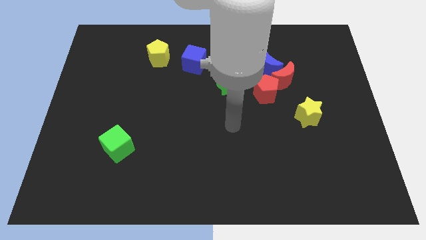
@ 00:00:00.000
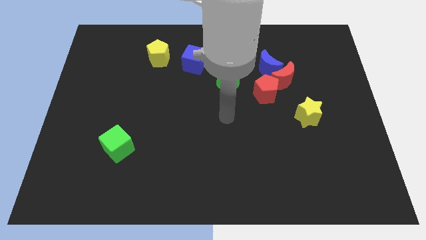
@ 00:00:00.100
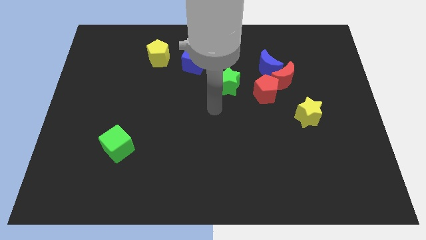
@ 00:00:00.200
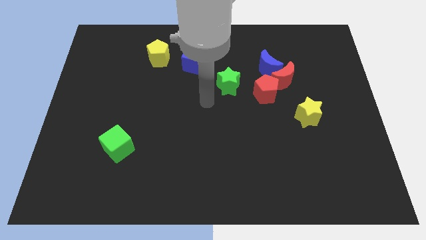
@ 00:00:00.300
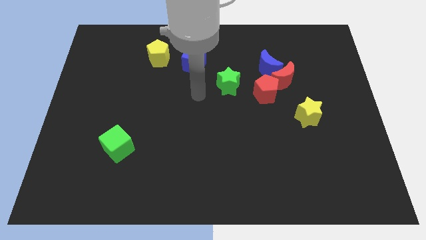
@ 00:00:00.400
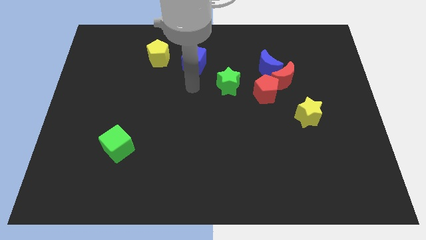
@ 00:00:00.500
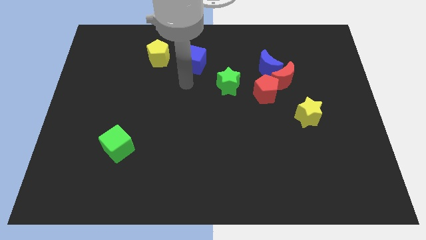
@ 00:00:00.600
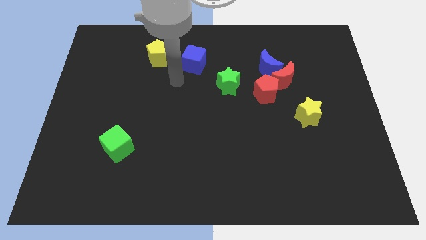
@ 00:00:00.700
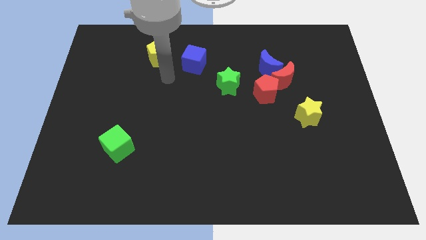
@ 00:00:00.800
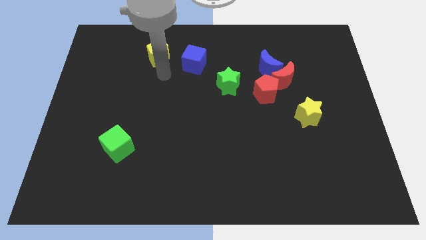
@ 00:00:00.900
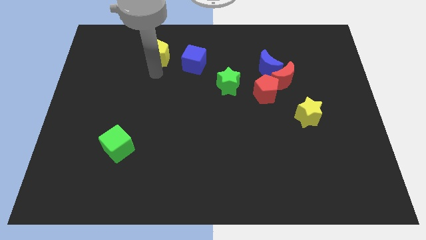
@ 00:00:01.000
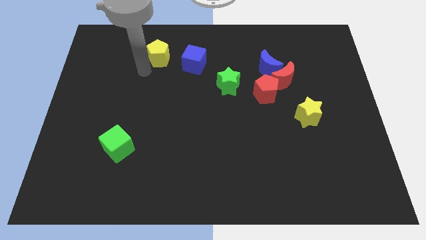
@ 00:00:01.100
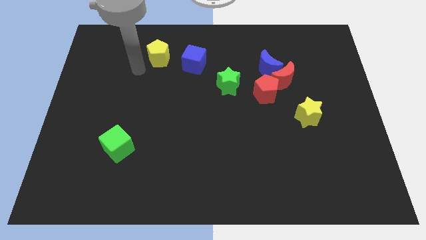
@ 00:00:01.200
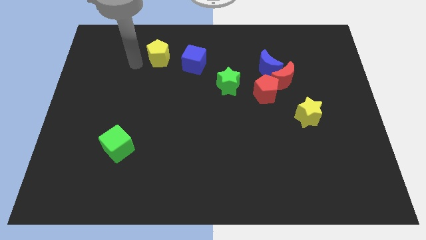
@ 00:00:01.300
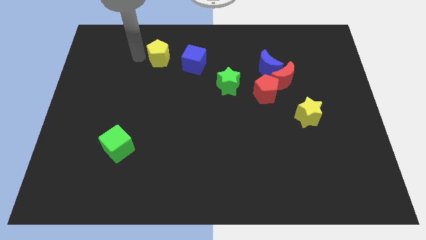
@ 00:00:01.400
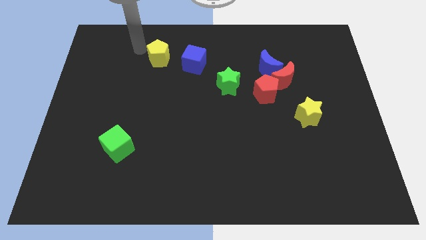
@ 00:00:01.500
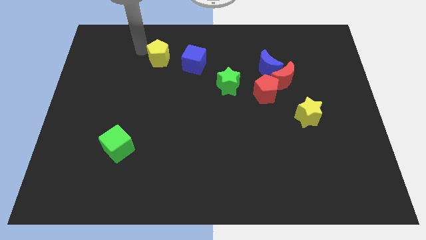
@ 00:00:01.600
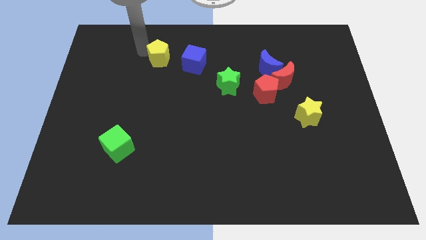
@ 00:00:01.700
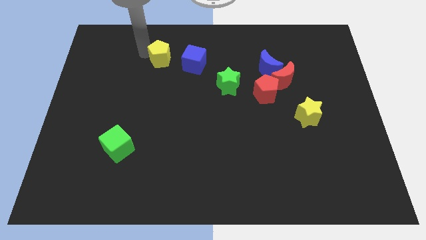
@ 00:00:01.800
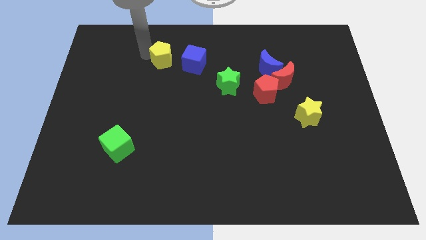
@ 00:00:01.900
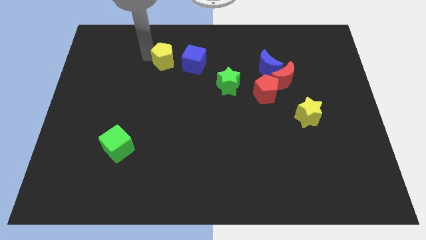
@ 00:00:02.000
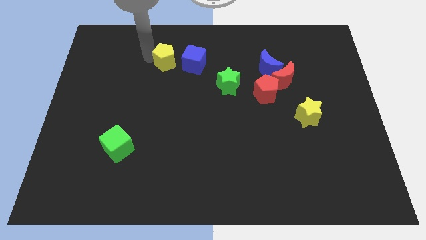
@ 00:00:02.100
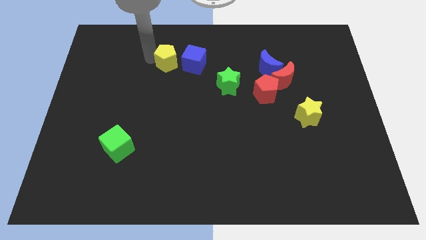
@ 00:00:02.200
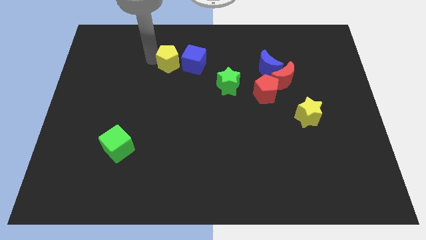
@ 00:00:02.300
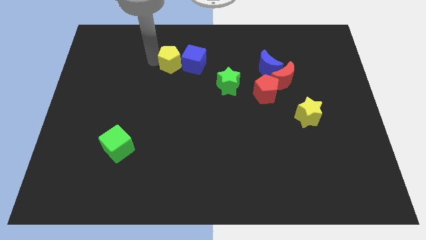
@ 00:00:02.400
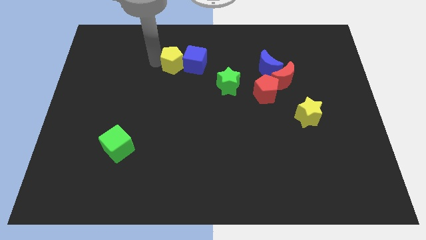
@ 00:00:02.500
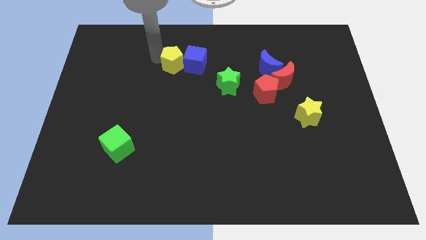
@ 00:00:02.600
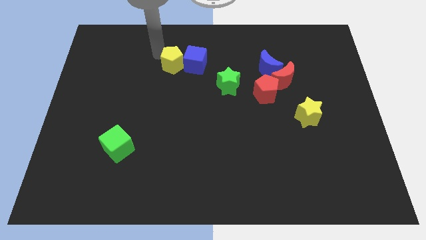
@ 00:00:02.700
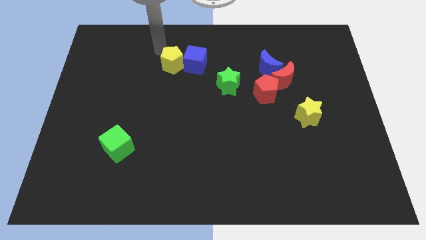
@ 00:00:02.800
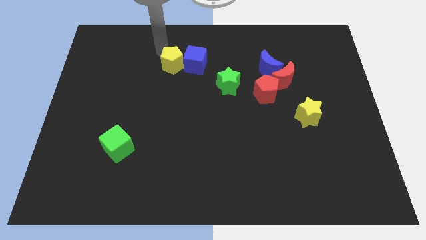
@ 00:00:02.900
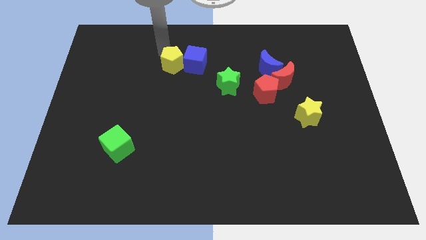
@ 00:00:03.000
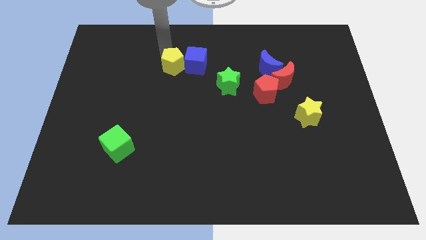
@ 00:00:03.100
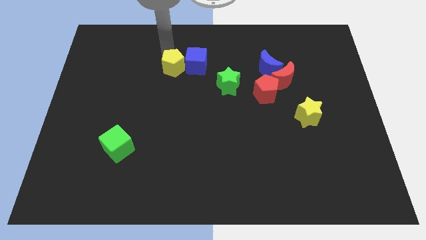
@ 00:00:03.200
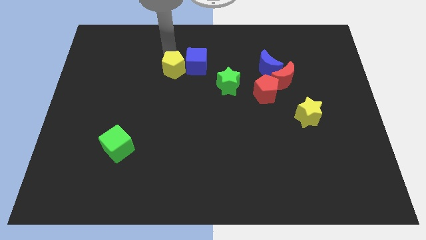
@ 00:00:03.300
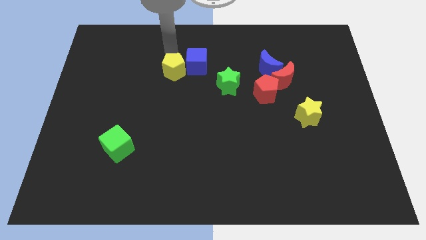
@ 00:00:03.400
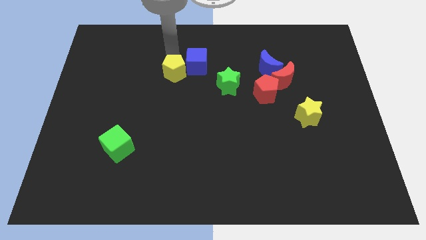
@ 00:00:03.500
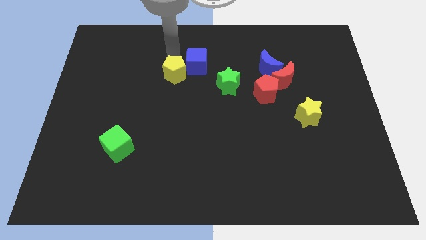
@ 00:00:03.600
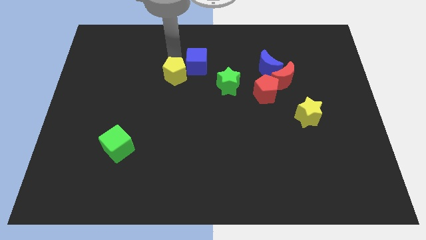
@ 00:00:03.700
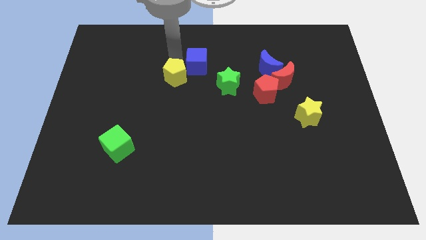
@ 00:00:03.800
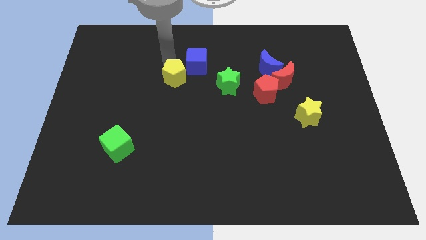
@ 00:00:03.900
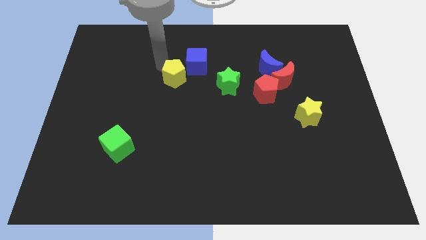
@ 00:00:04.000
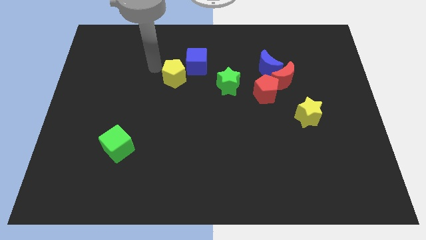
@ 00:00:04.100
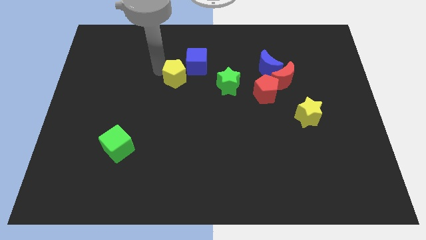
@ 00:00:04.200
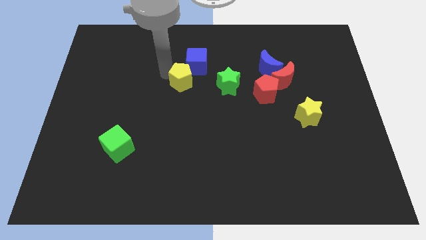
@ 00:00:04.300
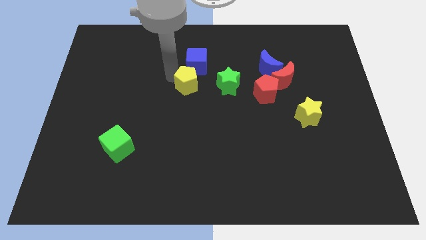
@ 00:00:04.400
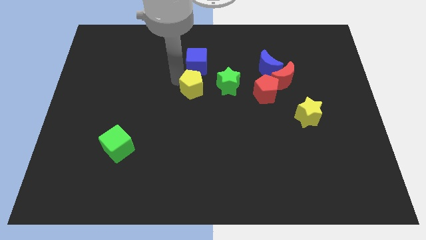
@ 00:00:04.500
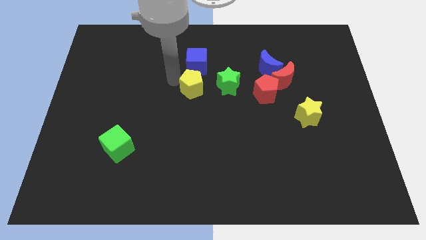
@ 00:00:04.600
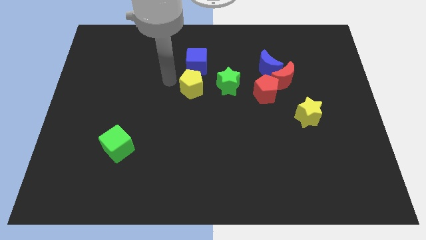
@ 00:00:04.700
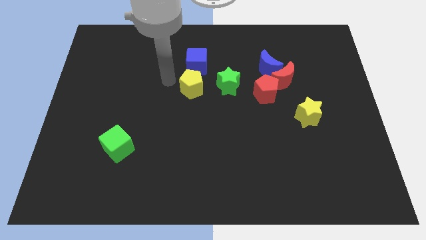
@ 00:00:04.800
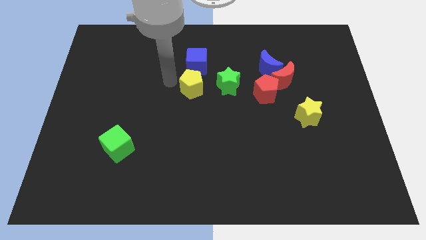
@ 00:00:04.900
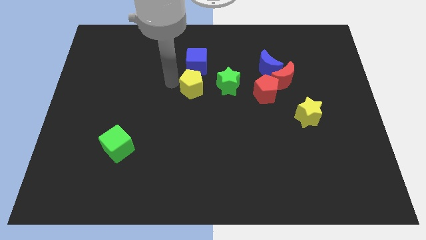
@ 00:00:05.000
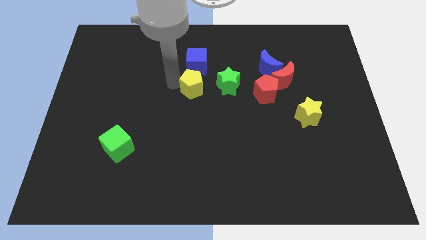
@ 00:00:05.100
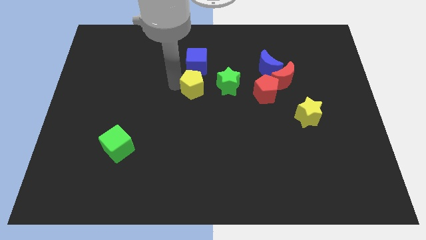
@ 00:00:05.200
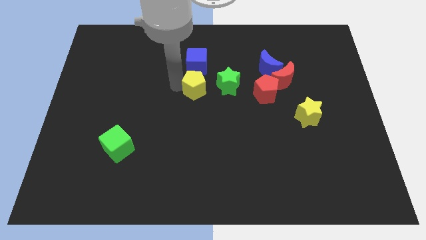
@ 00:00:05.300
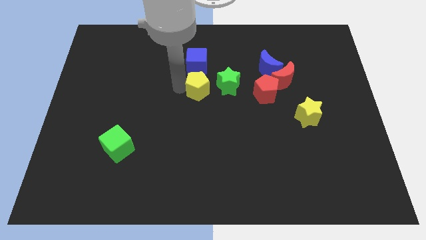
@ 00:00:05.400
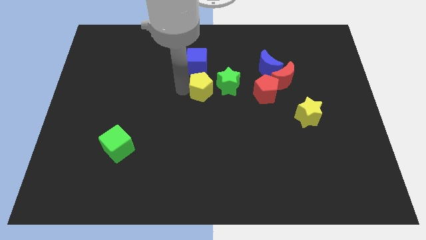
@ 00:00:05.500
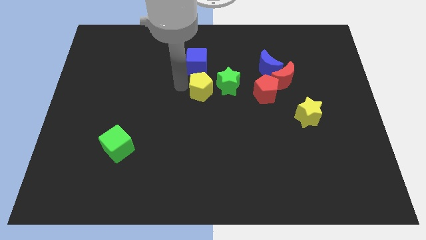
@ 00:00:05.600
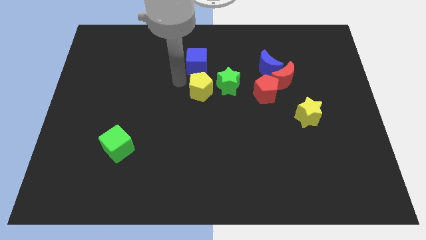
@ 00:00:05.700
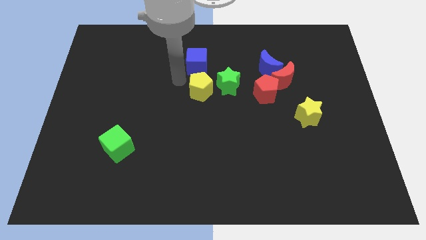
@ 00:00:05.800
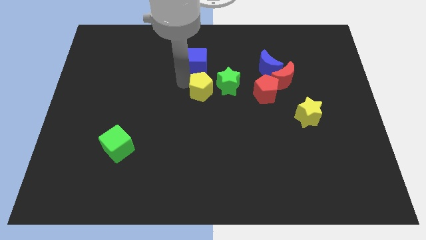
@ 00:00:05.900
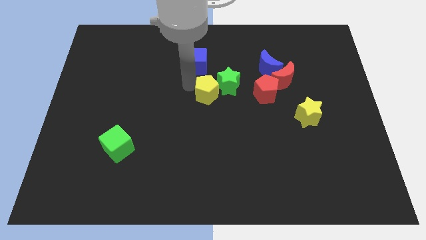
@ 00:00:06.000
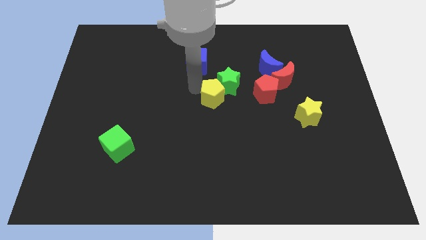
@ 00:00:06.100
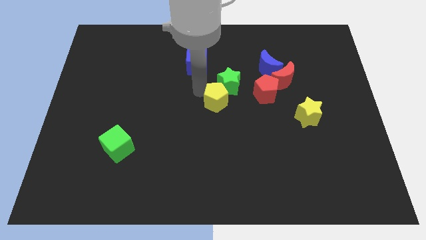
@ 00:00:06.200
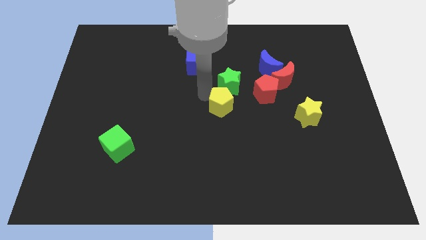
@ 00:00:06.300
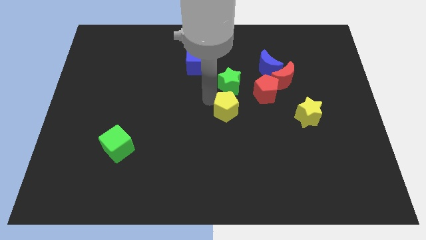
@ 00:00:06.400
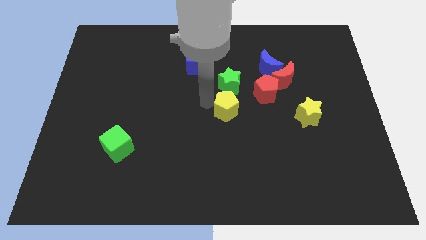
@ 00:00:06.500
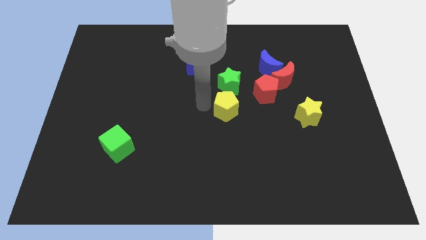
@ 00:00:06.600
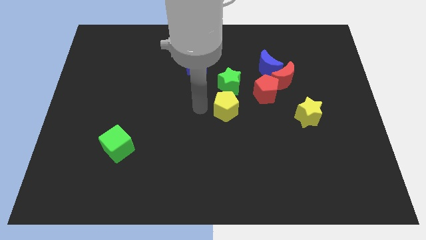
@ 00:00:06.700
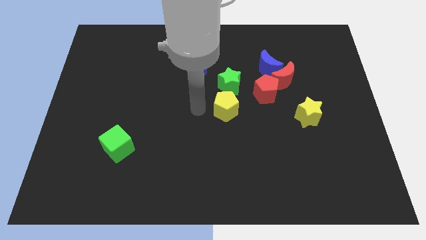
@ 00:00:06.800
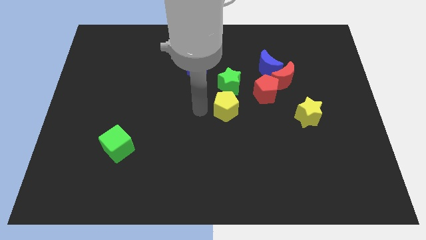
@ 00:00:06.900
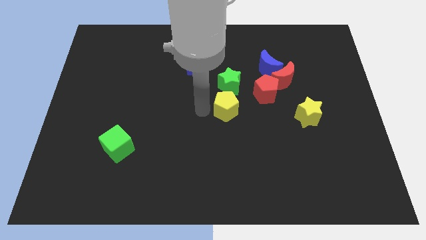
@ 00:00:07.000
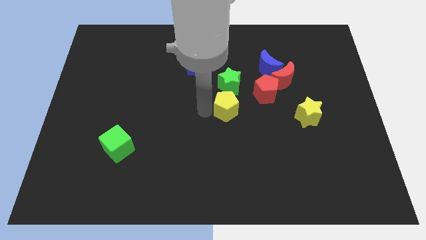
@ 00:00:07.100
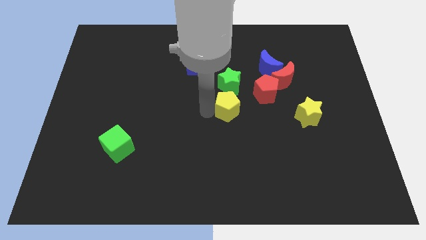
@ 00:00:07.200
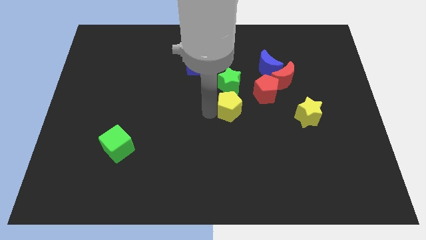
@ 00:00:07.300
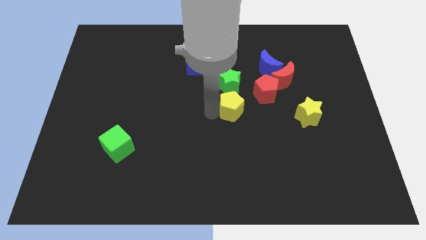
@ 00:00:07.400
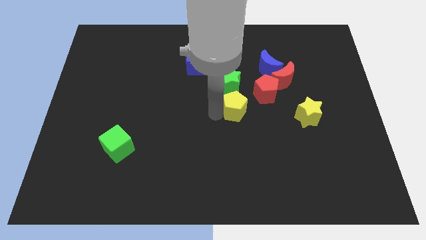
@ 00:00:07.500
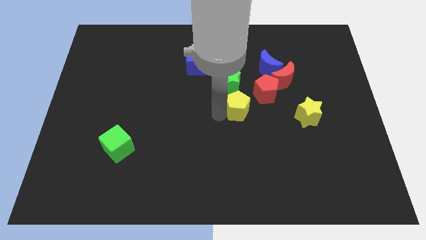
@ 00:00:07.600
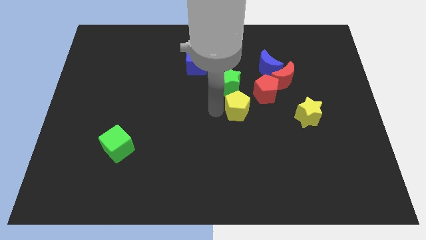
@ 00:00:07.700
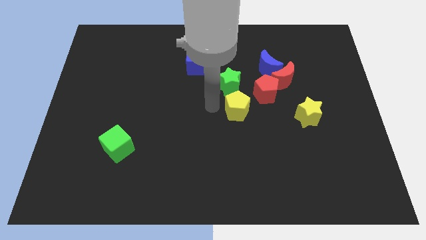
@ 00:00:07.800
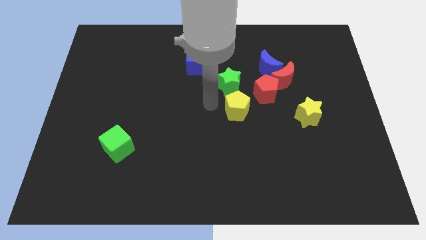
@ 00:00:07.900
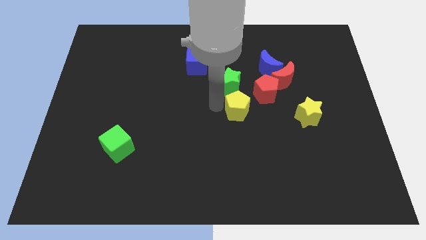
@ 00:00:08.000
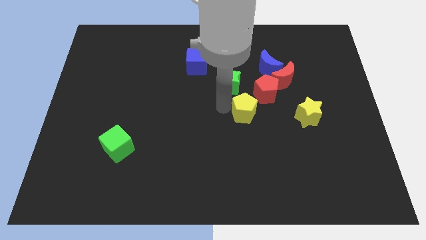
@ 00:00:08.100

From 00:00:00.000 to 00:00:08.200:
put the yellow pentagon just left of the yellow star
